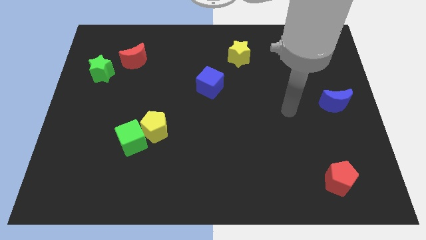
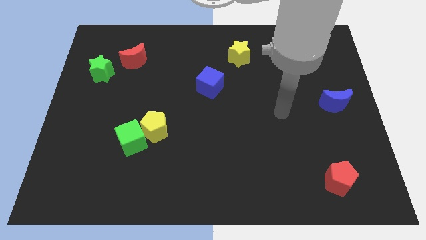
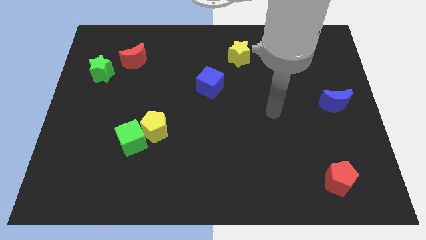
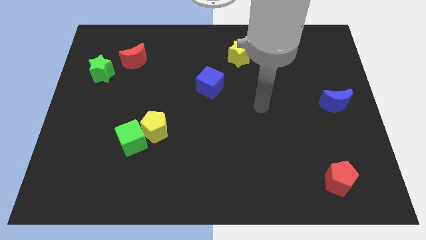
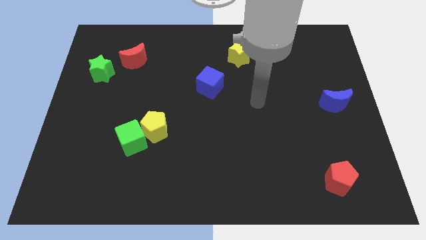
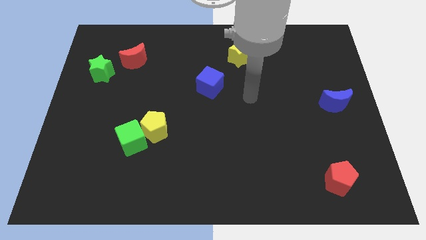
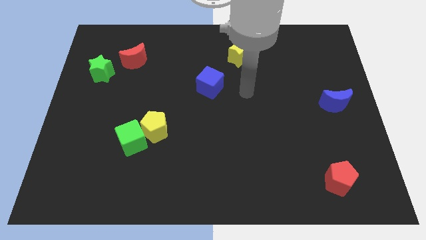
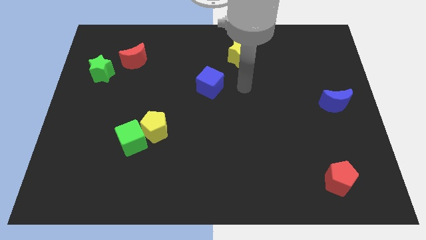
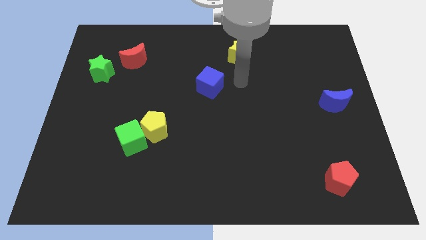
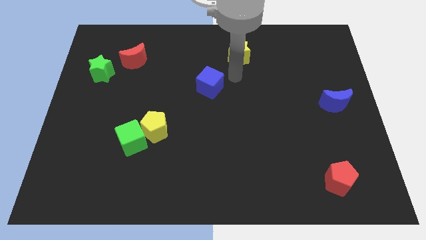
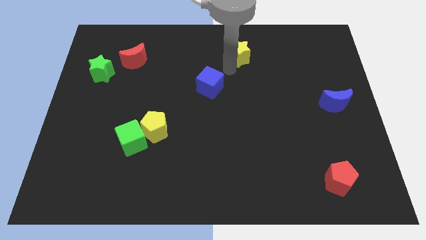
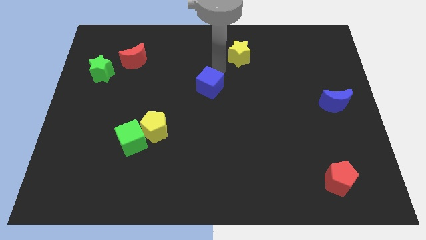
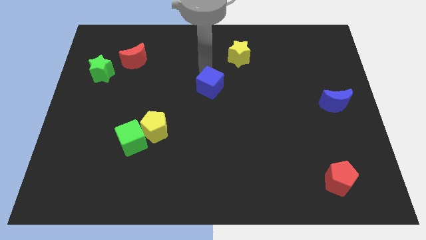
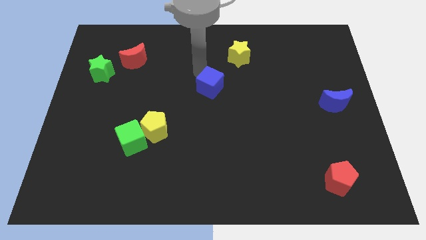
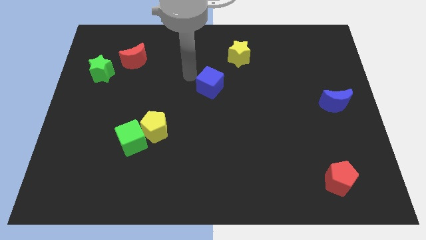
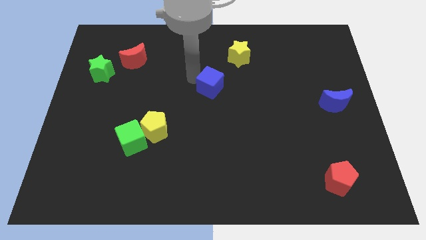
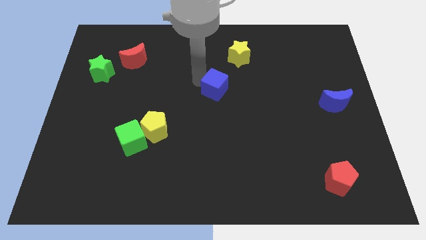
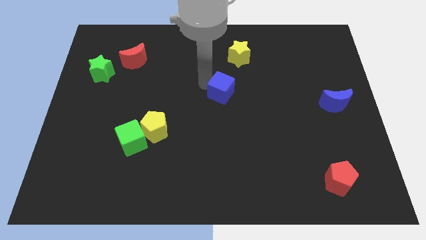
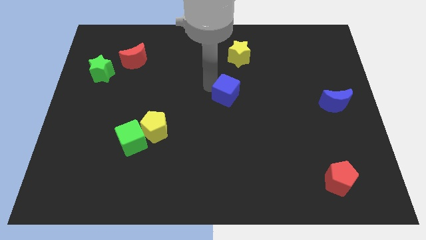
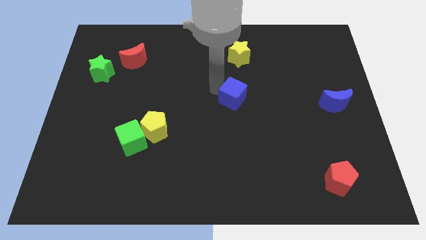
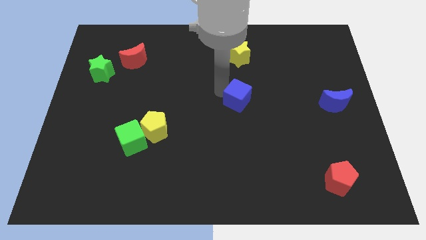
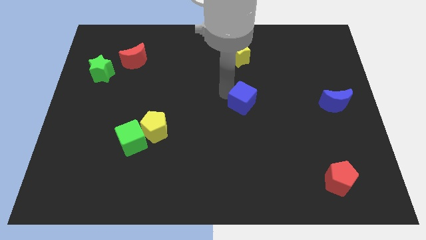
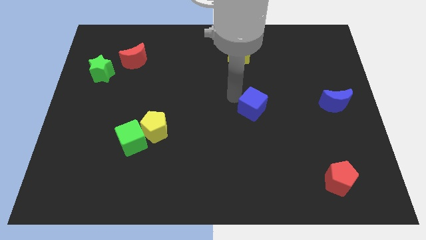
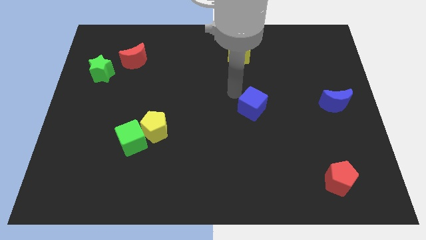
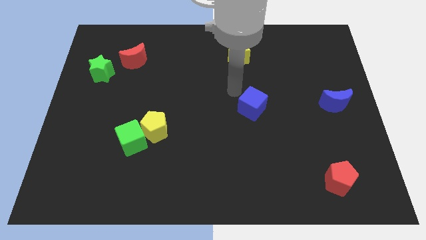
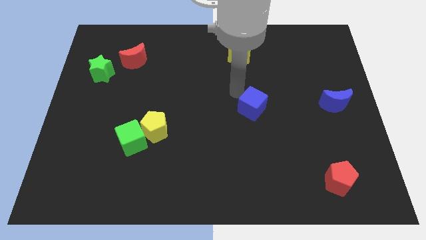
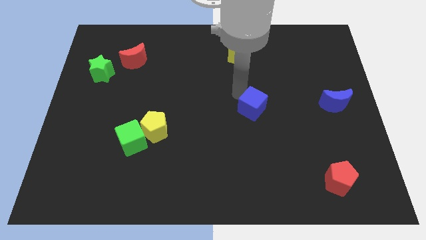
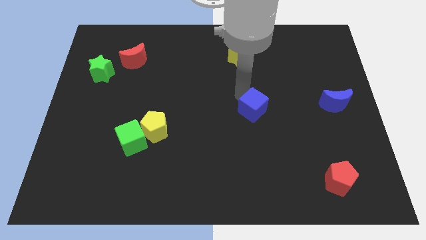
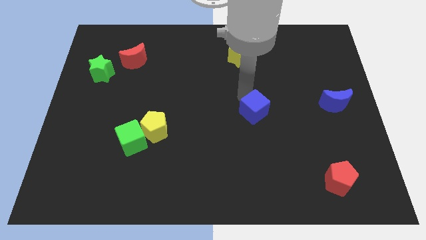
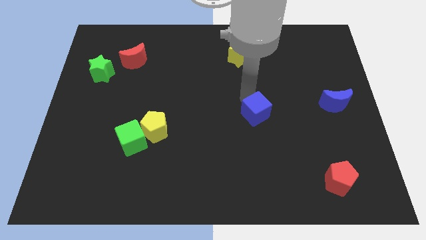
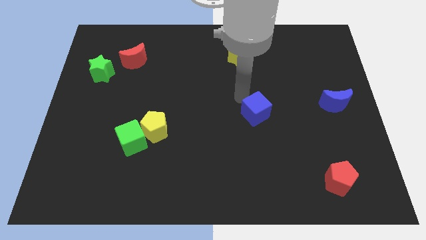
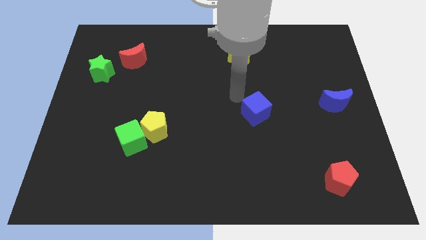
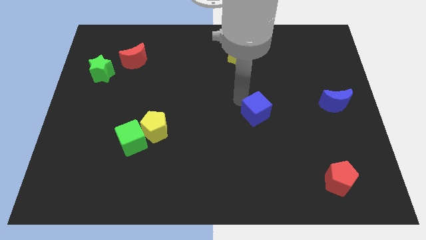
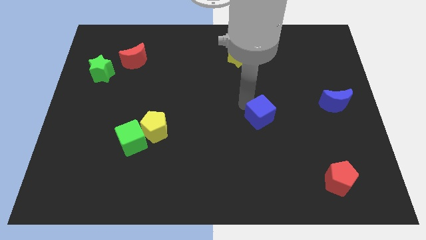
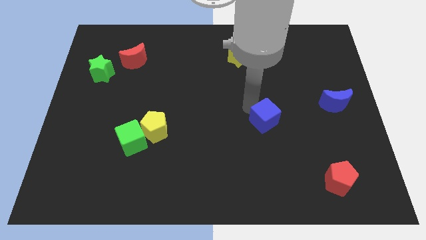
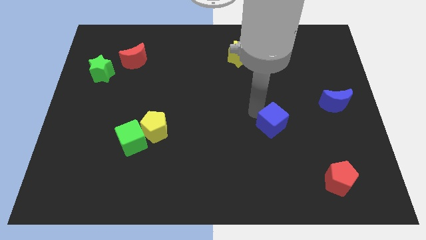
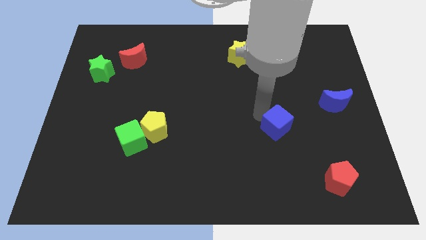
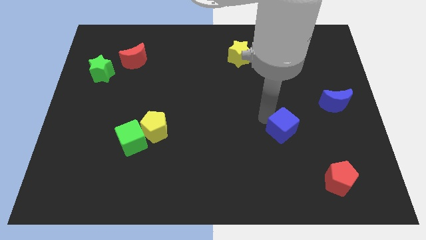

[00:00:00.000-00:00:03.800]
push the blue cube down and right

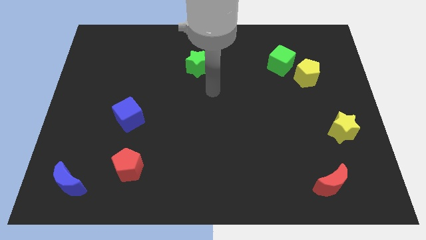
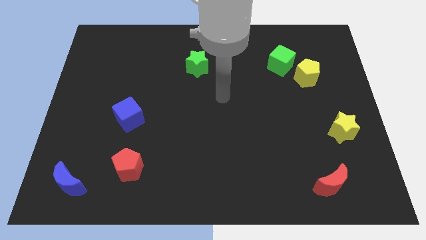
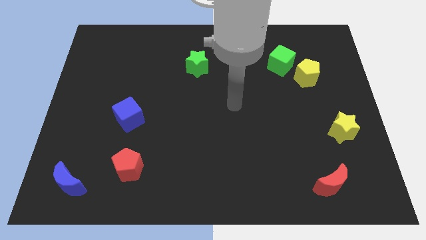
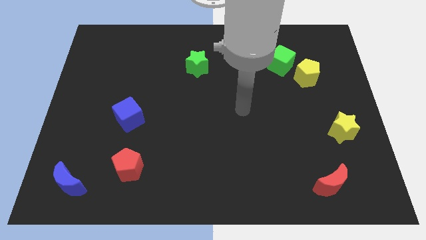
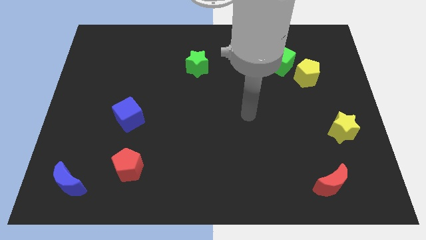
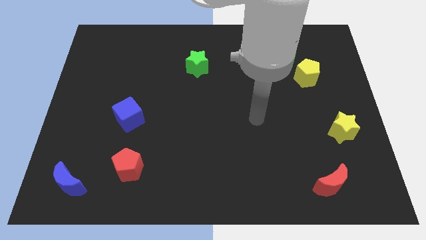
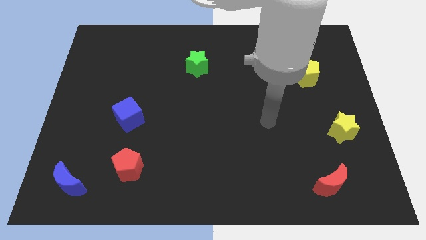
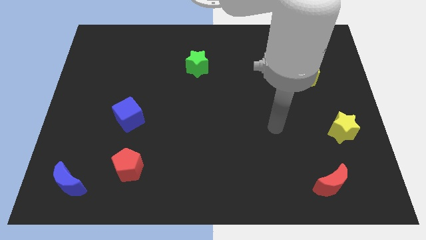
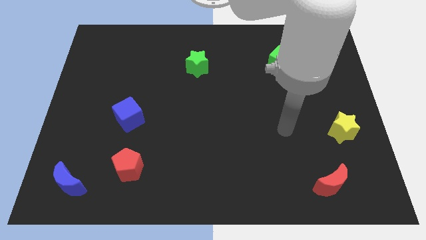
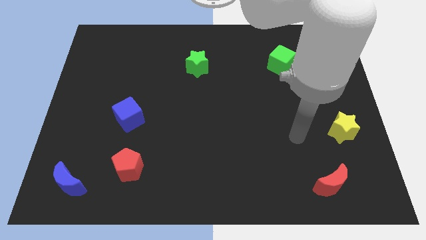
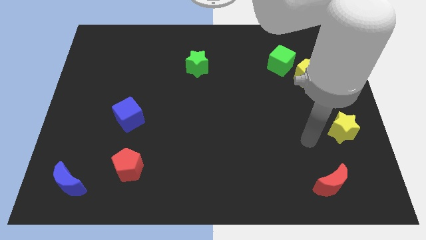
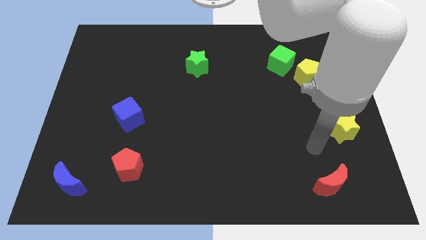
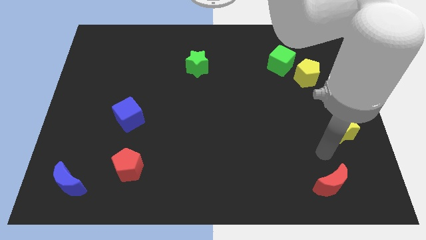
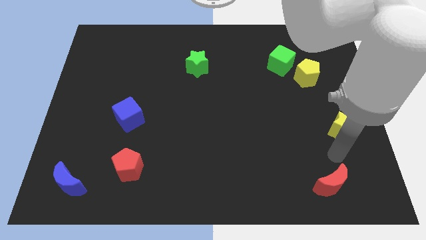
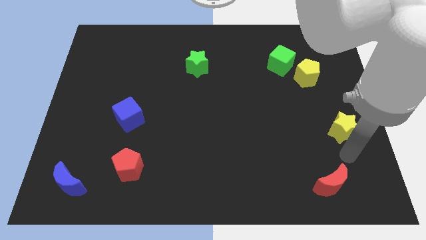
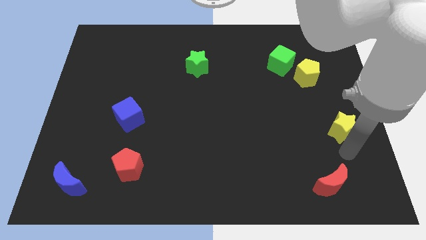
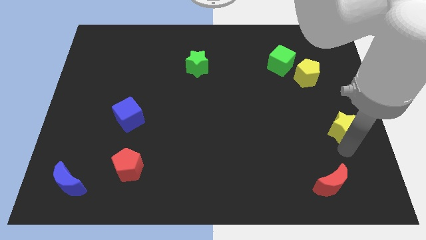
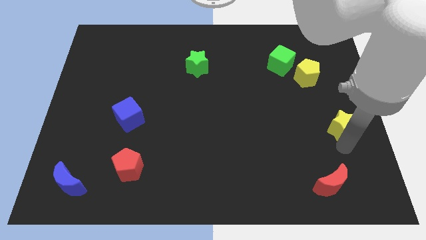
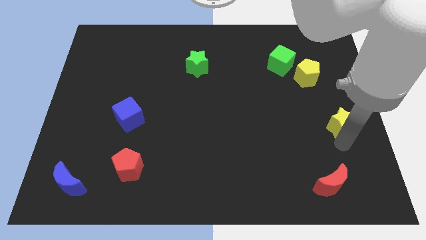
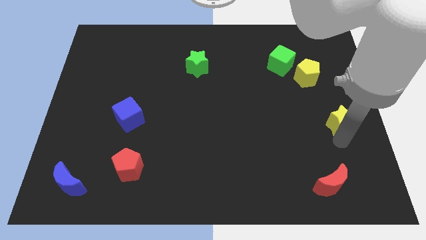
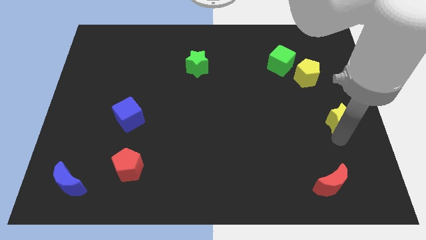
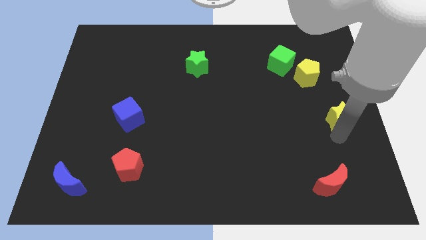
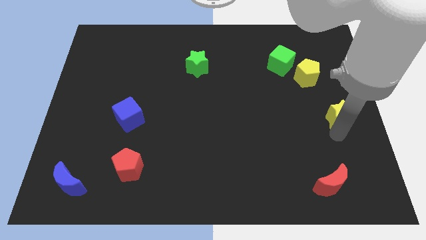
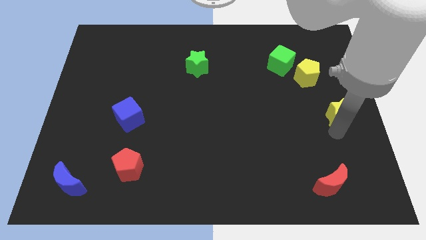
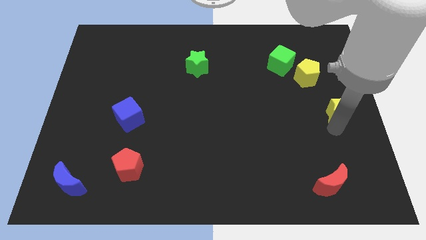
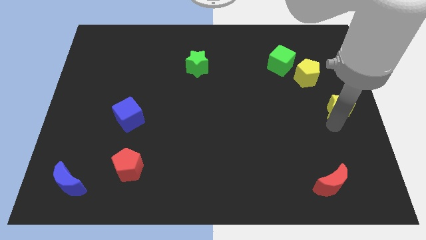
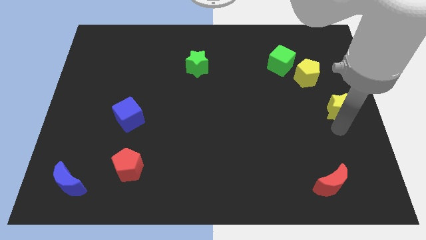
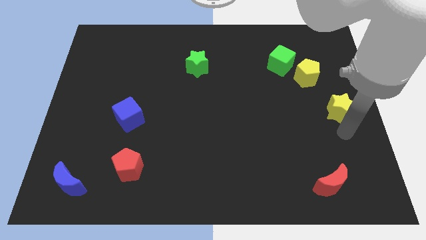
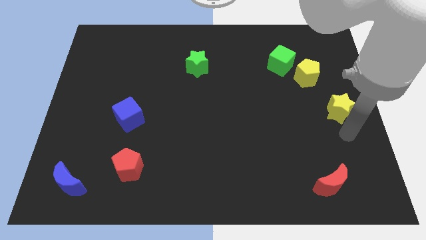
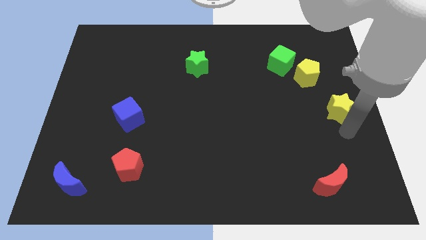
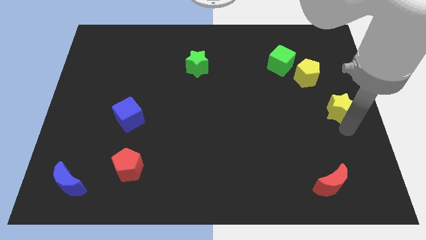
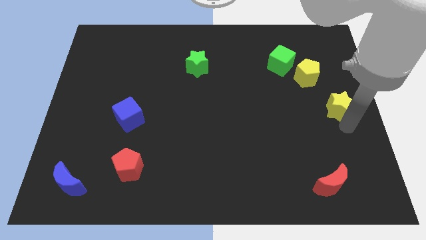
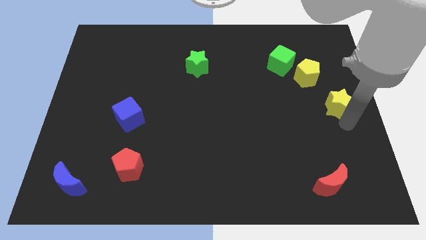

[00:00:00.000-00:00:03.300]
slide the yellow star upwards slightly

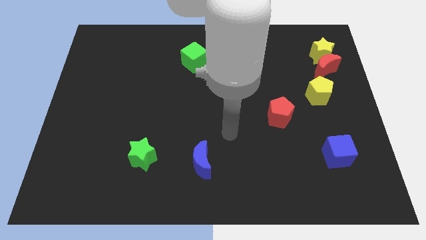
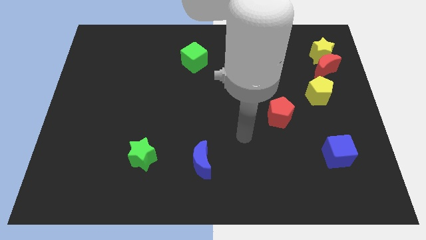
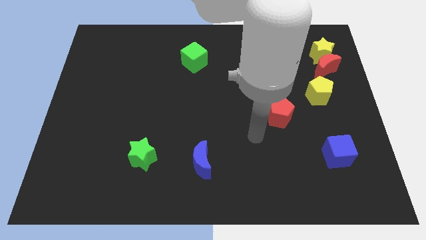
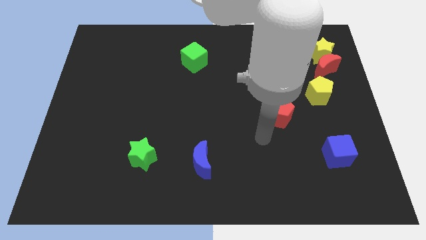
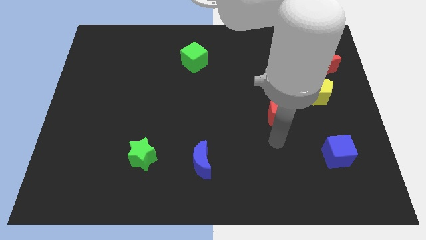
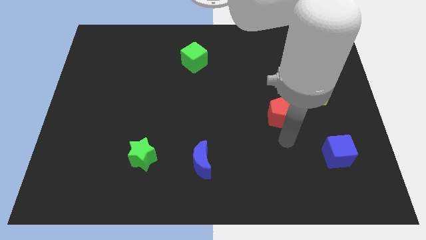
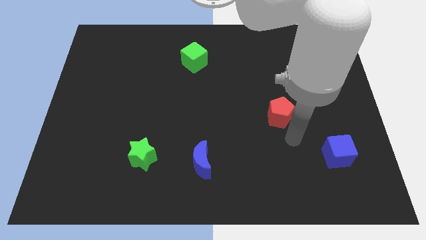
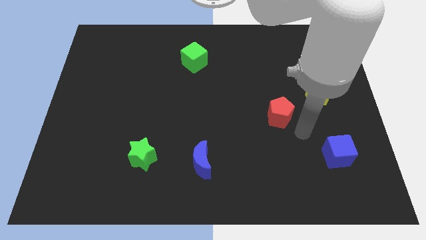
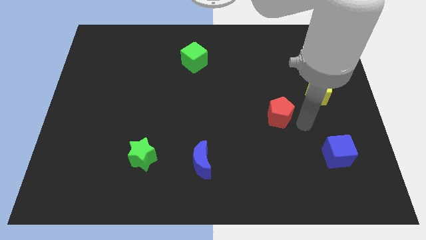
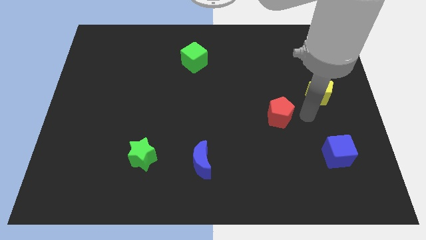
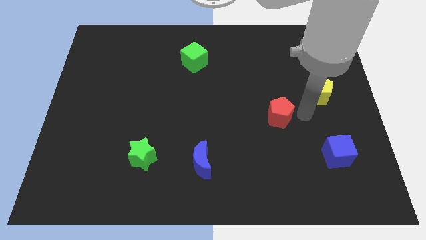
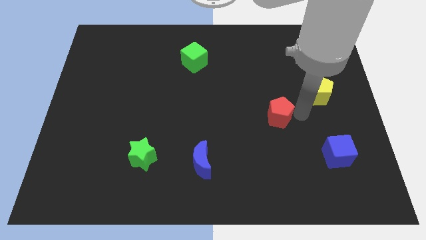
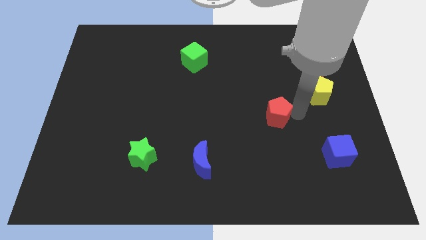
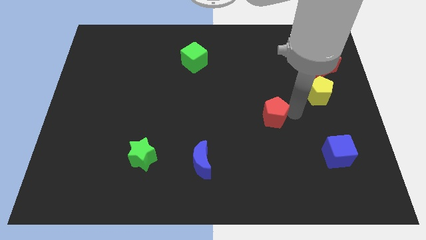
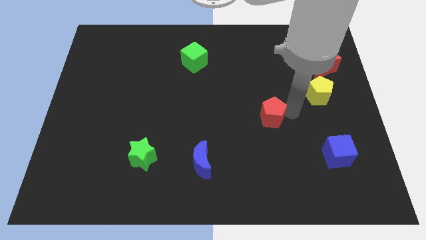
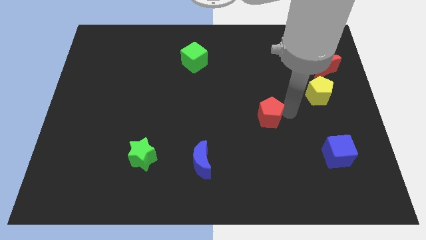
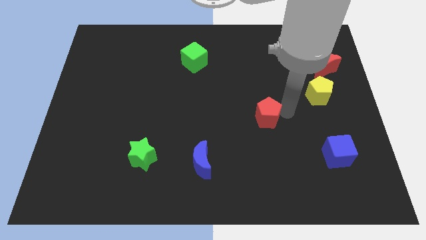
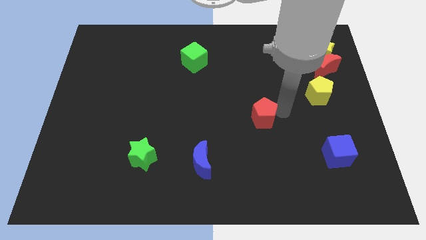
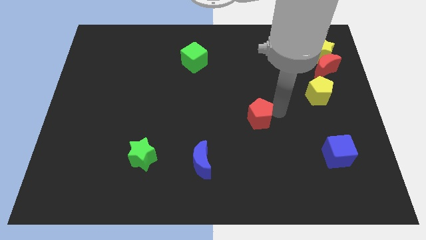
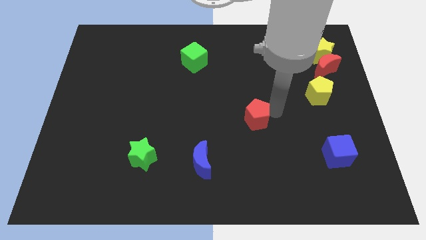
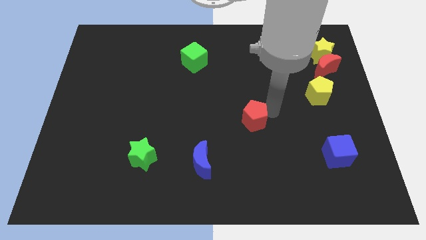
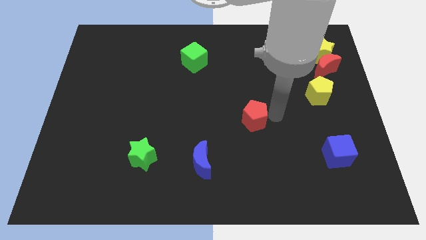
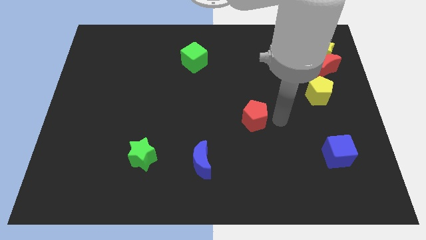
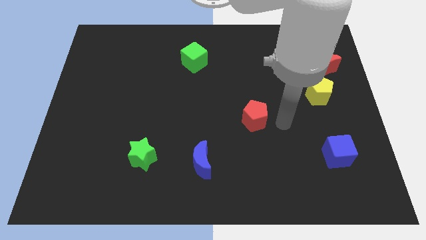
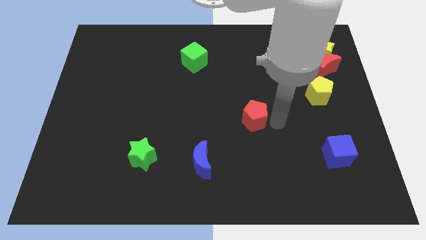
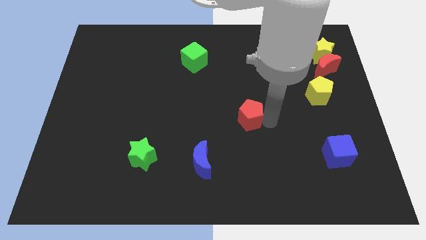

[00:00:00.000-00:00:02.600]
slightly push the red pentagon to the left
